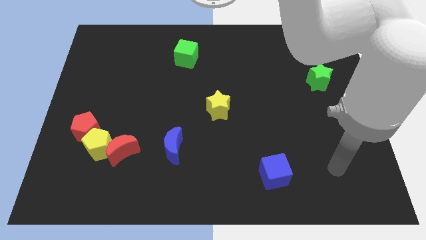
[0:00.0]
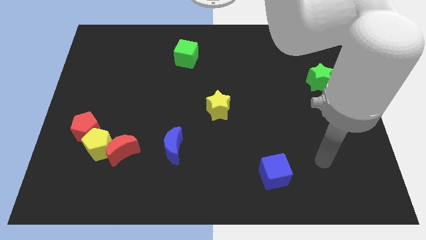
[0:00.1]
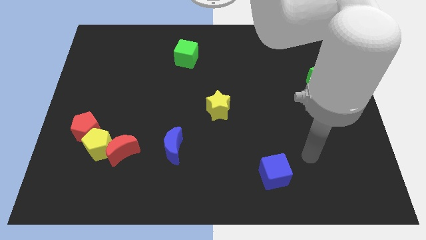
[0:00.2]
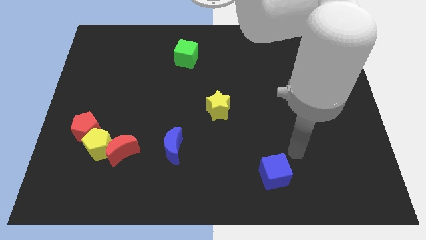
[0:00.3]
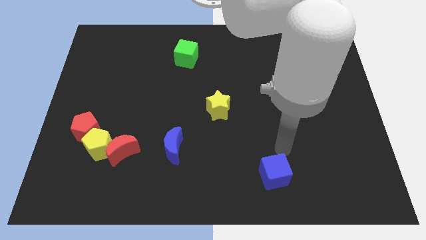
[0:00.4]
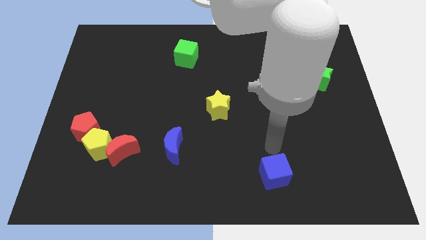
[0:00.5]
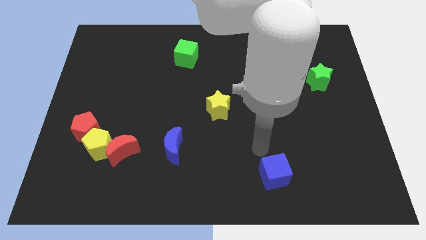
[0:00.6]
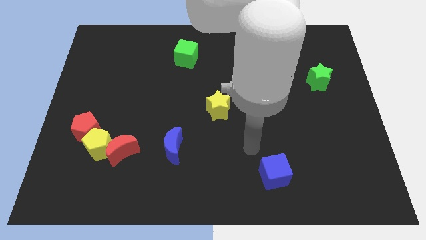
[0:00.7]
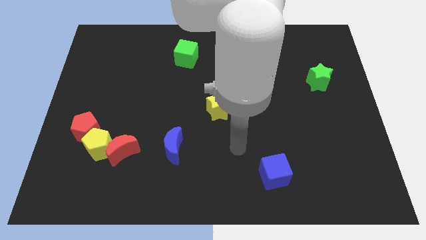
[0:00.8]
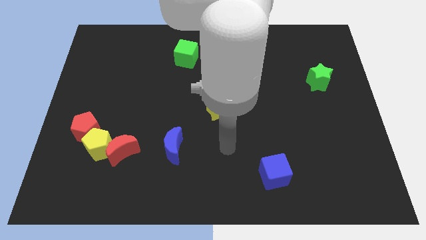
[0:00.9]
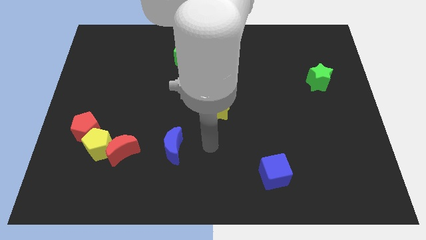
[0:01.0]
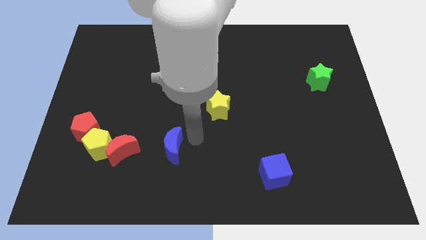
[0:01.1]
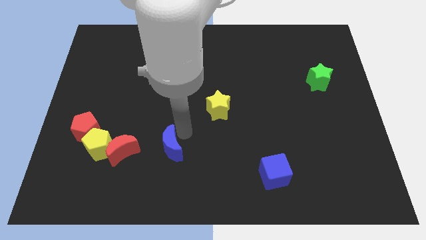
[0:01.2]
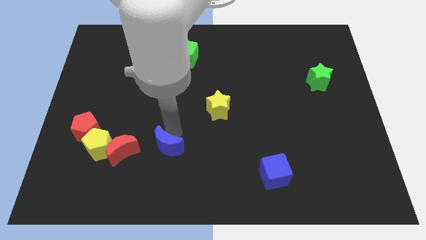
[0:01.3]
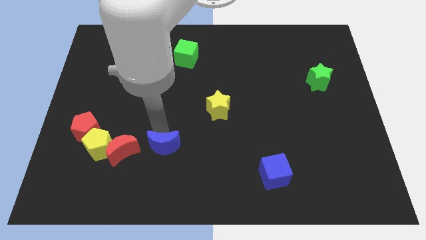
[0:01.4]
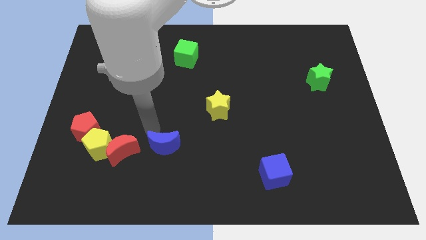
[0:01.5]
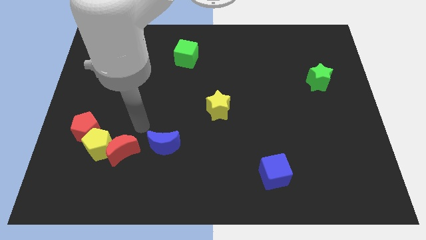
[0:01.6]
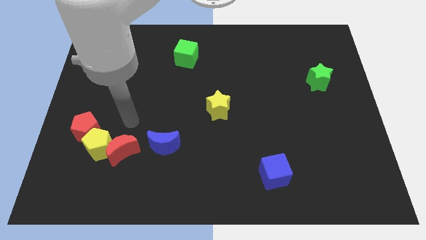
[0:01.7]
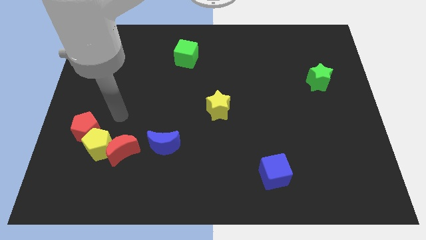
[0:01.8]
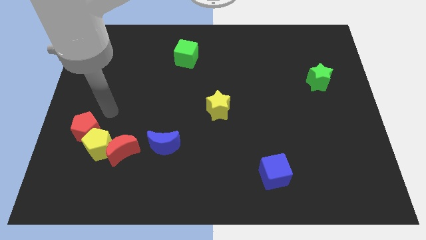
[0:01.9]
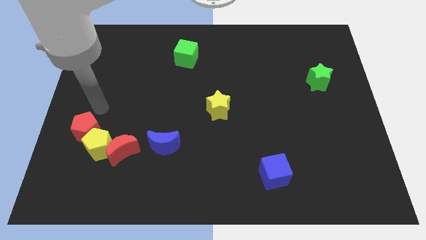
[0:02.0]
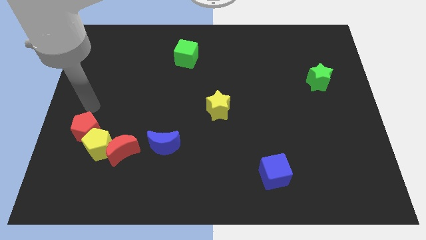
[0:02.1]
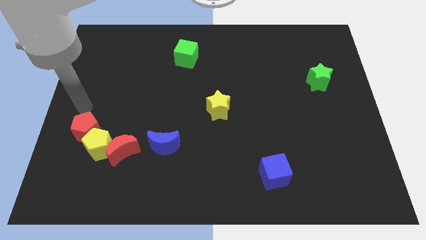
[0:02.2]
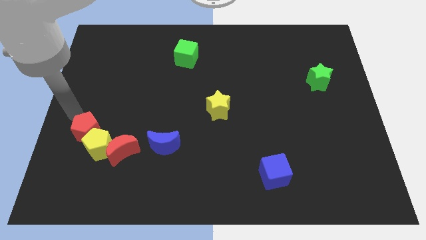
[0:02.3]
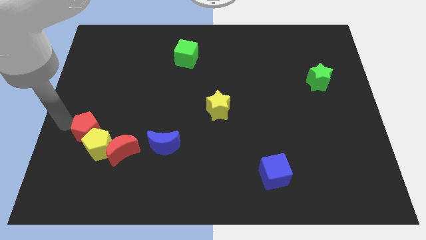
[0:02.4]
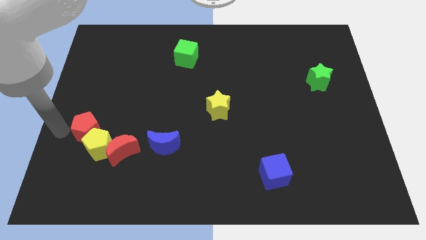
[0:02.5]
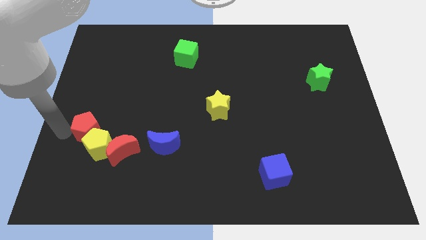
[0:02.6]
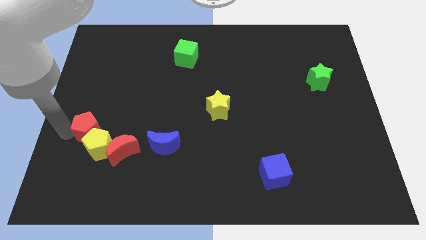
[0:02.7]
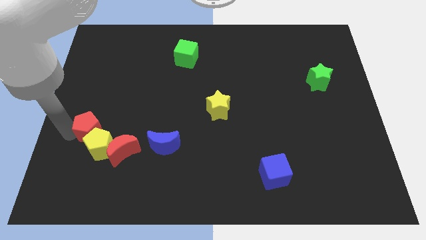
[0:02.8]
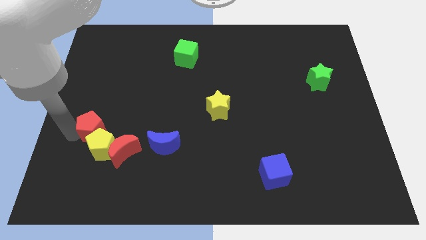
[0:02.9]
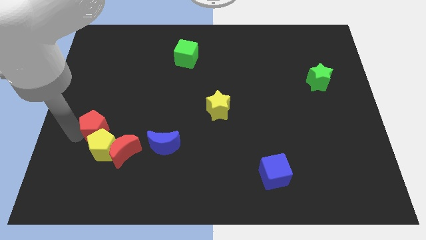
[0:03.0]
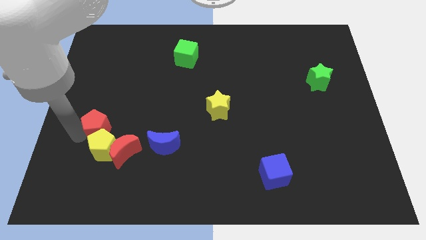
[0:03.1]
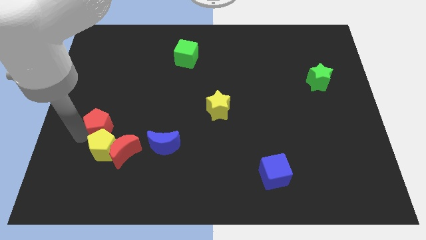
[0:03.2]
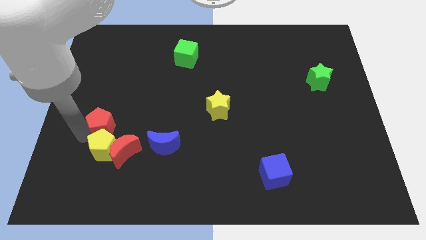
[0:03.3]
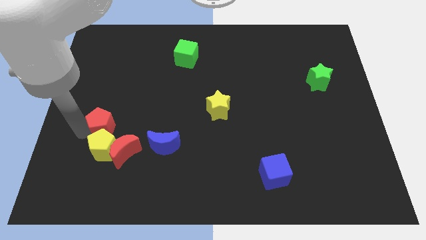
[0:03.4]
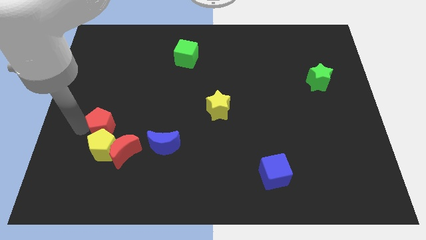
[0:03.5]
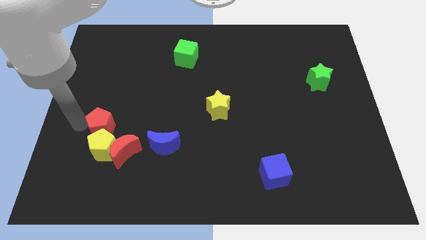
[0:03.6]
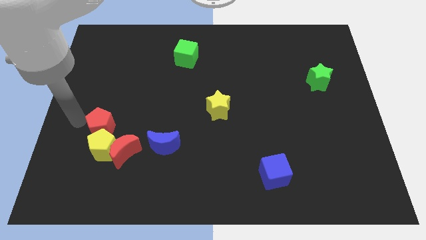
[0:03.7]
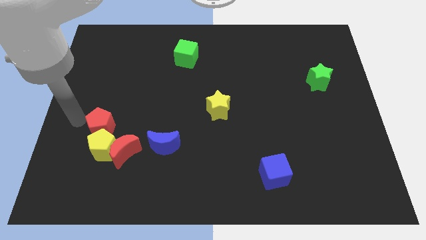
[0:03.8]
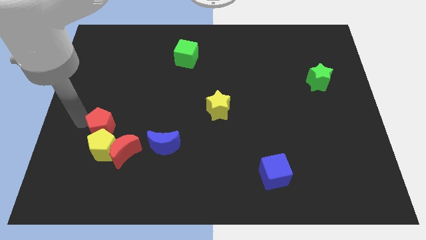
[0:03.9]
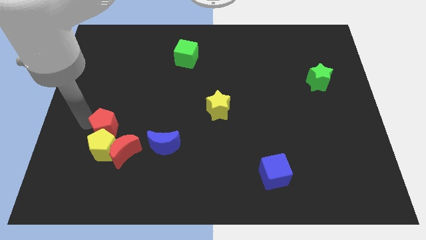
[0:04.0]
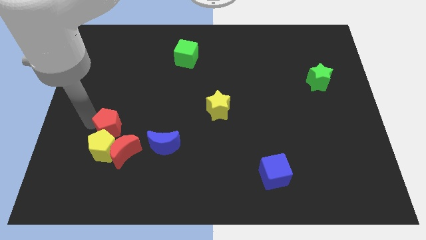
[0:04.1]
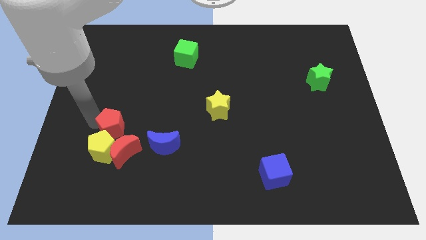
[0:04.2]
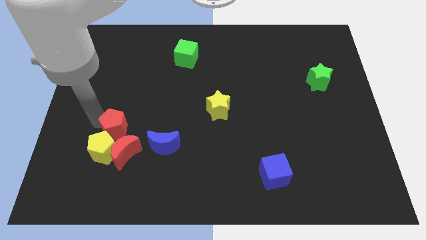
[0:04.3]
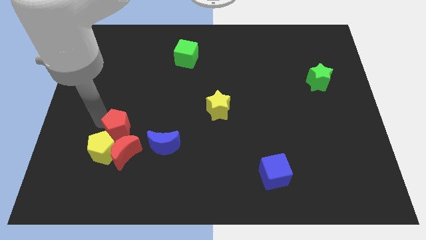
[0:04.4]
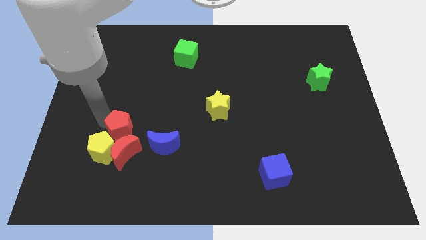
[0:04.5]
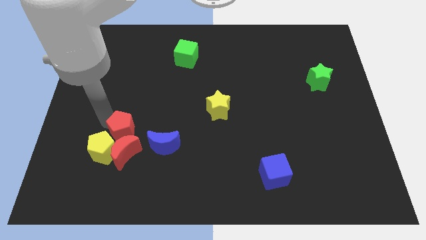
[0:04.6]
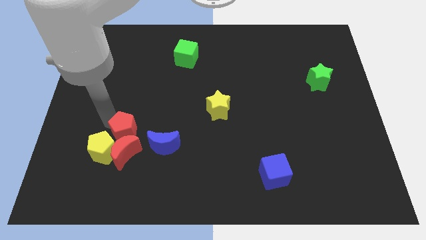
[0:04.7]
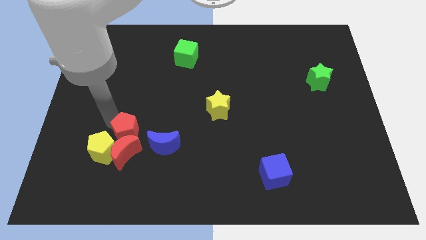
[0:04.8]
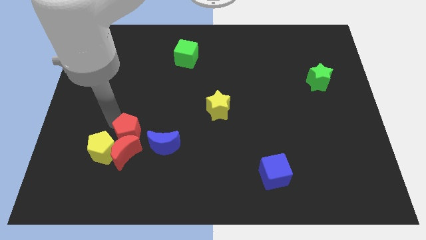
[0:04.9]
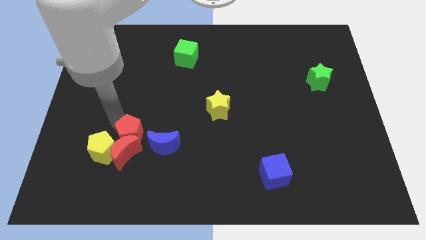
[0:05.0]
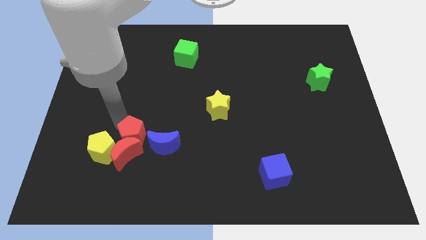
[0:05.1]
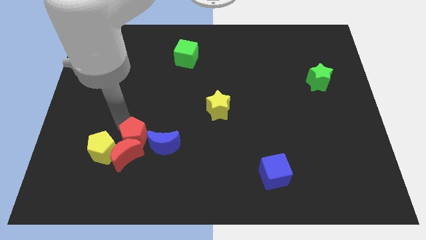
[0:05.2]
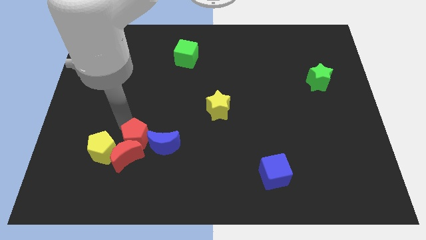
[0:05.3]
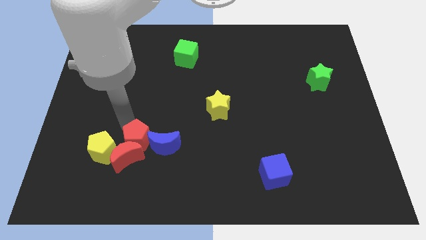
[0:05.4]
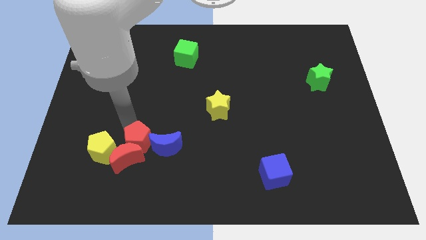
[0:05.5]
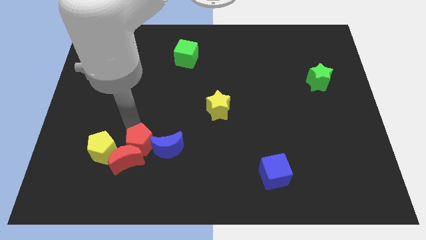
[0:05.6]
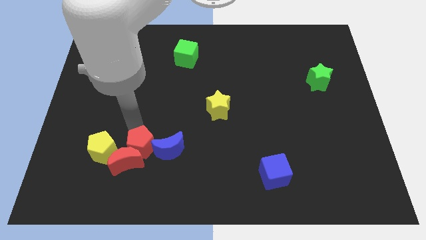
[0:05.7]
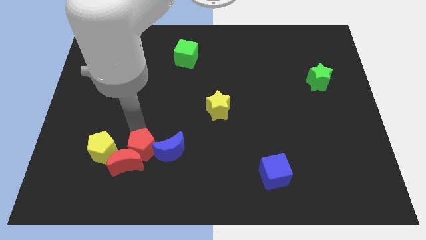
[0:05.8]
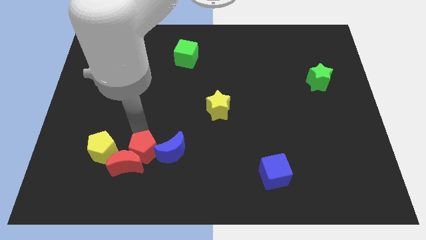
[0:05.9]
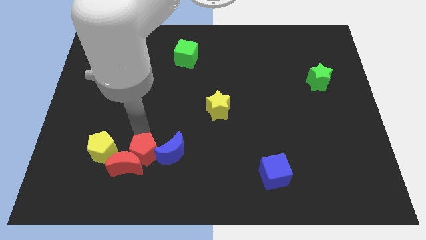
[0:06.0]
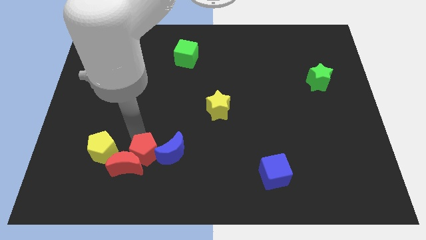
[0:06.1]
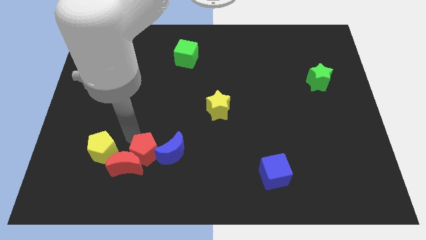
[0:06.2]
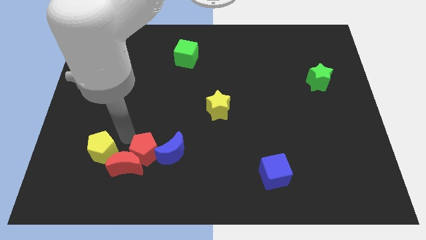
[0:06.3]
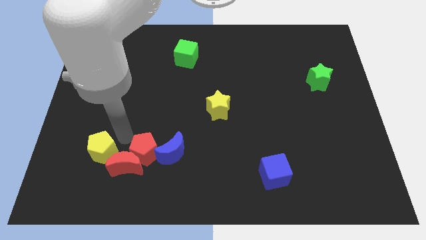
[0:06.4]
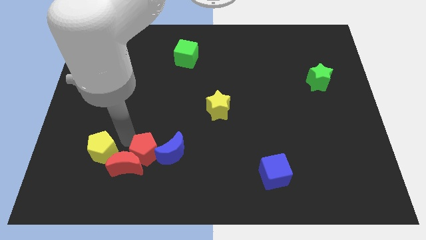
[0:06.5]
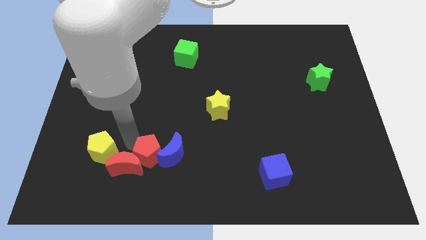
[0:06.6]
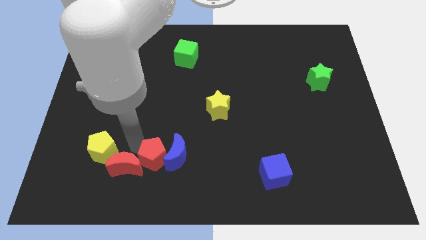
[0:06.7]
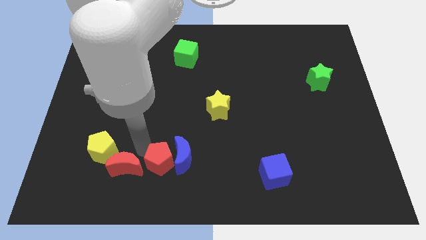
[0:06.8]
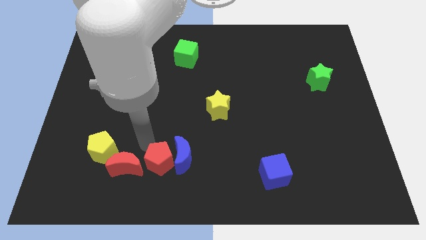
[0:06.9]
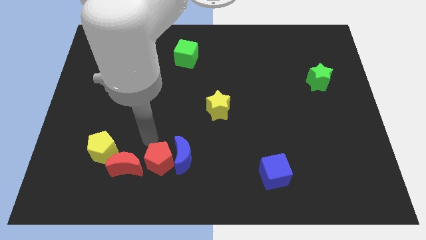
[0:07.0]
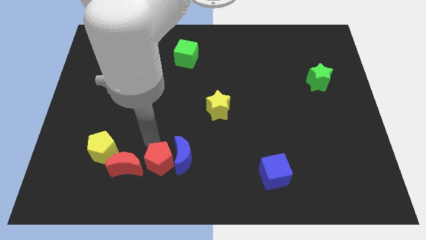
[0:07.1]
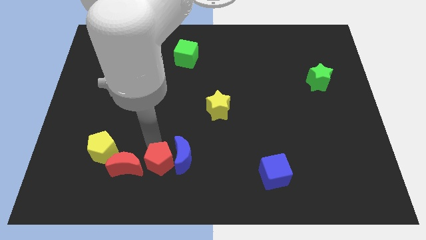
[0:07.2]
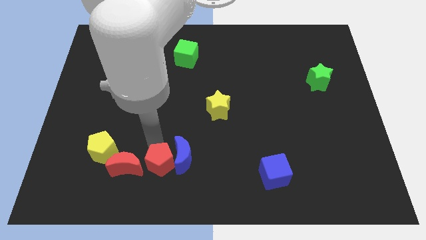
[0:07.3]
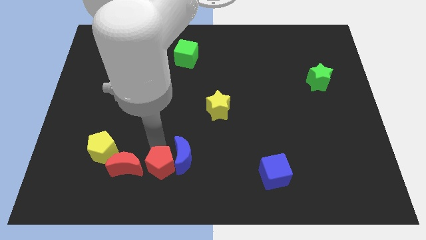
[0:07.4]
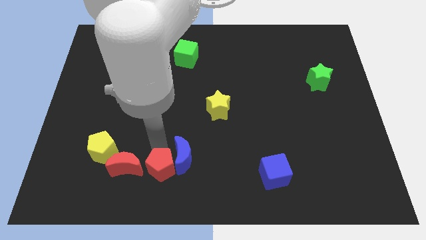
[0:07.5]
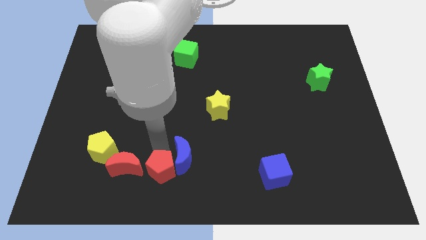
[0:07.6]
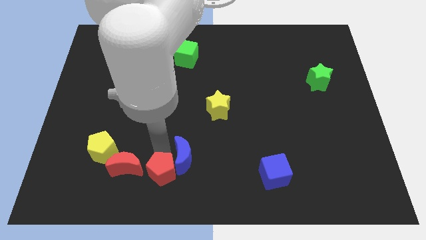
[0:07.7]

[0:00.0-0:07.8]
put the red pentagon to the bottom side
